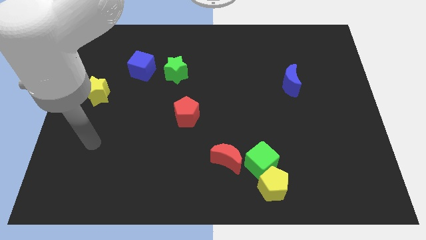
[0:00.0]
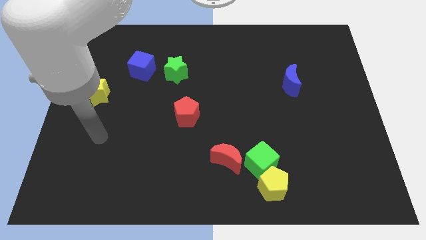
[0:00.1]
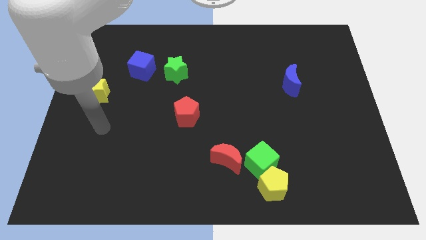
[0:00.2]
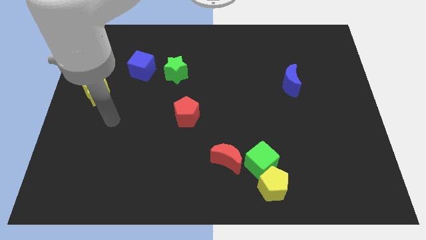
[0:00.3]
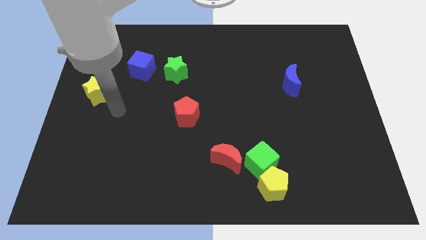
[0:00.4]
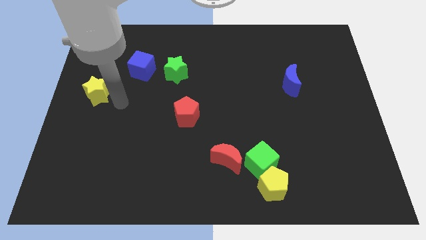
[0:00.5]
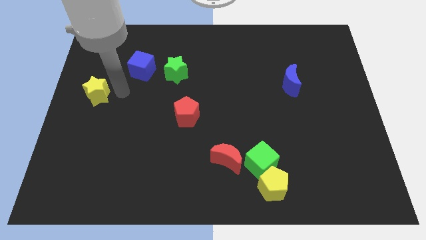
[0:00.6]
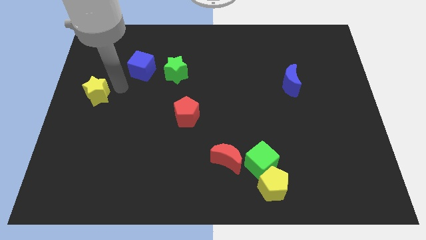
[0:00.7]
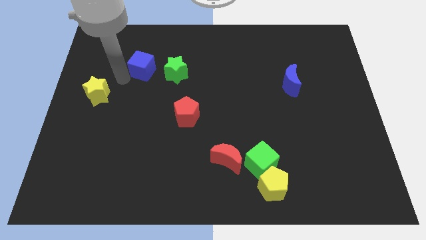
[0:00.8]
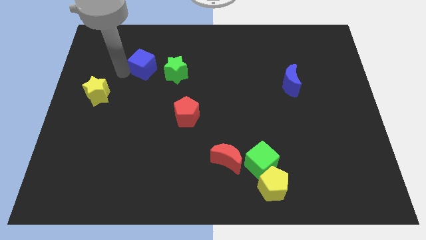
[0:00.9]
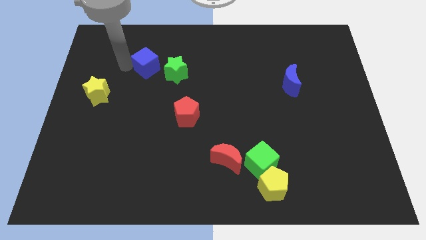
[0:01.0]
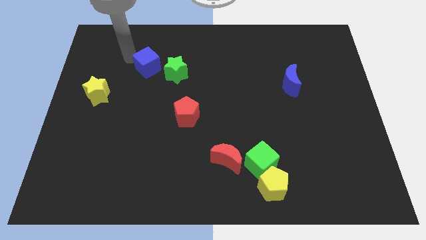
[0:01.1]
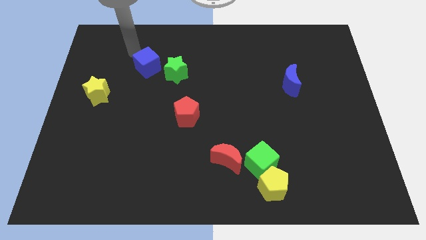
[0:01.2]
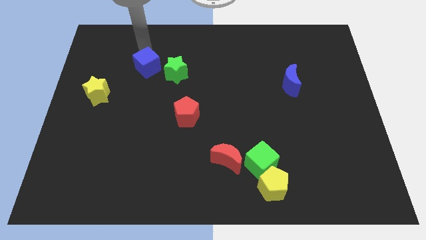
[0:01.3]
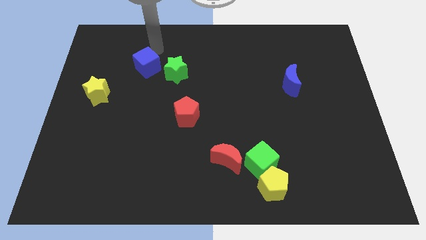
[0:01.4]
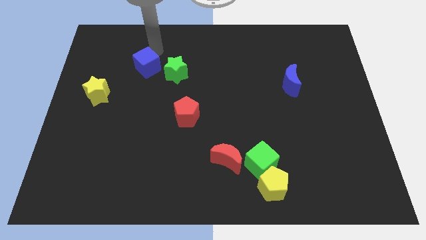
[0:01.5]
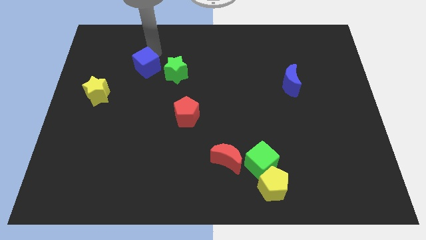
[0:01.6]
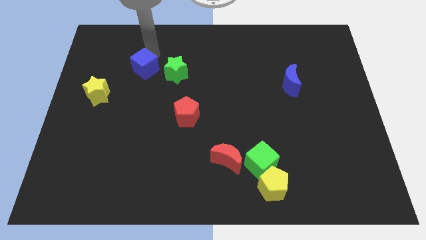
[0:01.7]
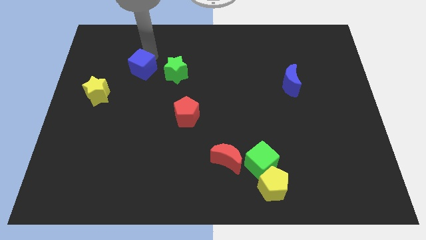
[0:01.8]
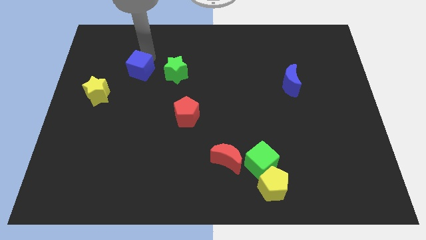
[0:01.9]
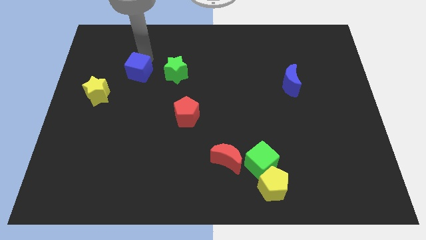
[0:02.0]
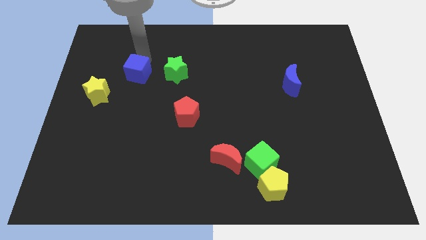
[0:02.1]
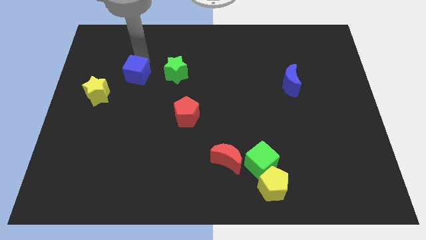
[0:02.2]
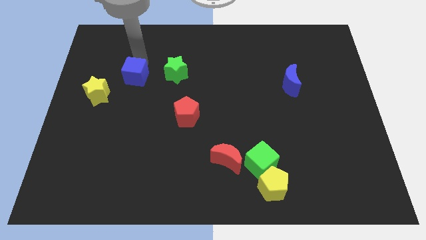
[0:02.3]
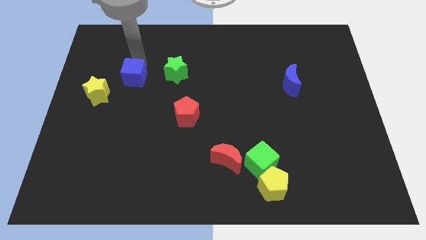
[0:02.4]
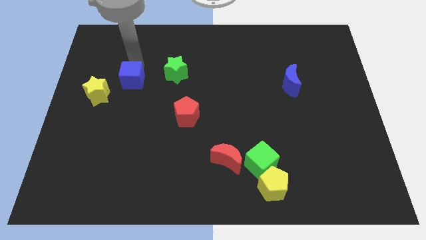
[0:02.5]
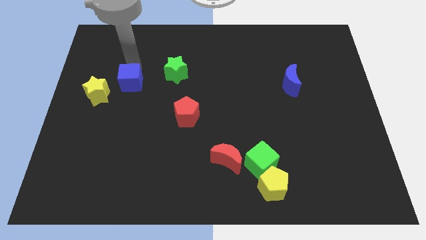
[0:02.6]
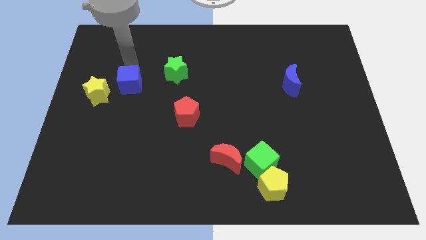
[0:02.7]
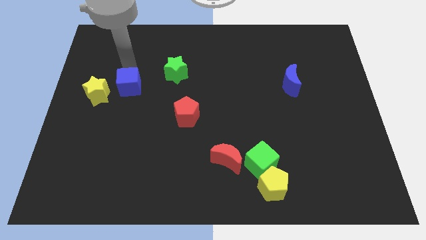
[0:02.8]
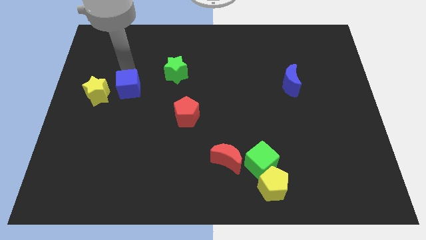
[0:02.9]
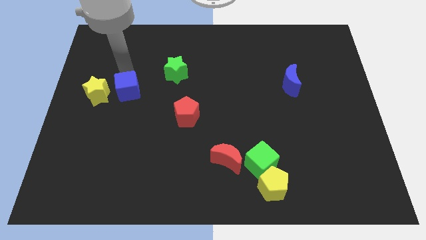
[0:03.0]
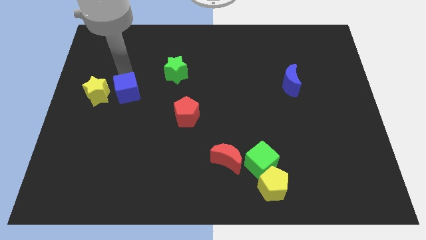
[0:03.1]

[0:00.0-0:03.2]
slide the blue cube somewhat down

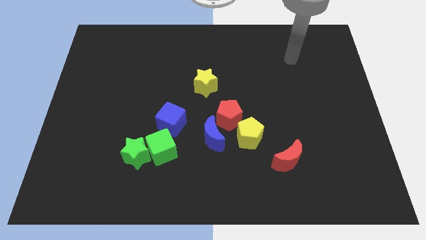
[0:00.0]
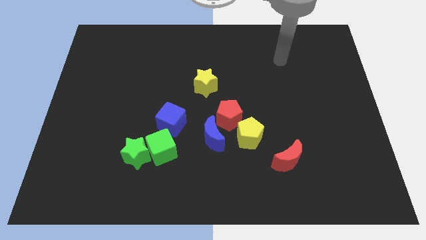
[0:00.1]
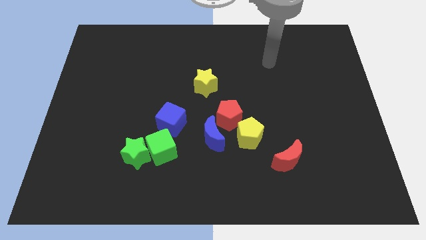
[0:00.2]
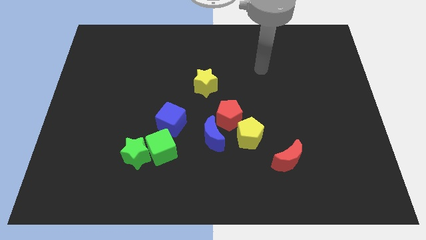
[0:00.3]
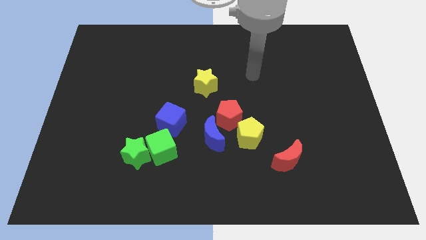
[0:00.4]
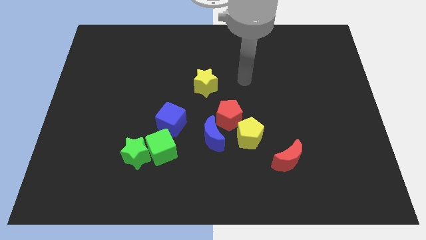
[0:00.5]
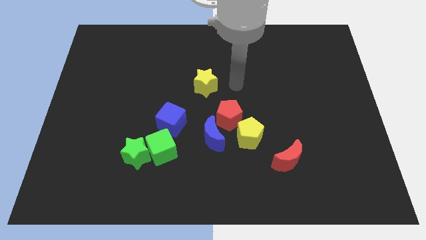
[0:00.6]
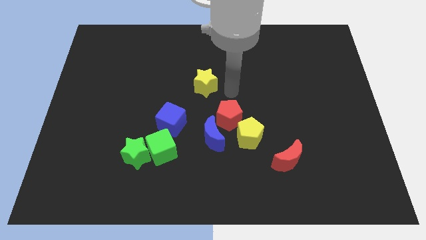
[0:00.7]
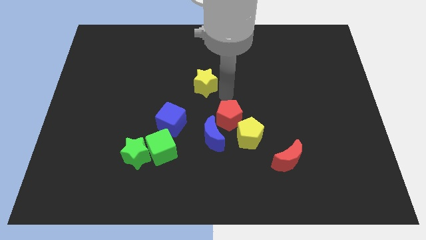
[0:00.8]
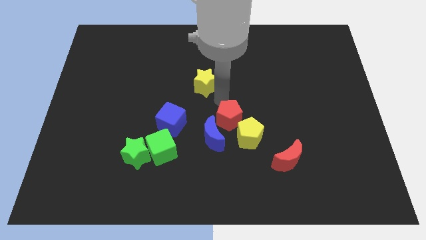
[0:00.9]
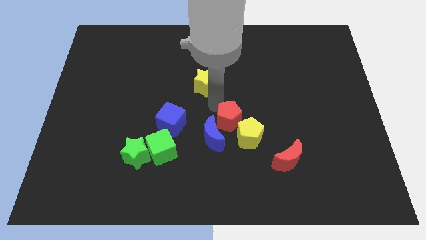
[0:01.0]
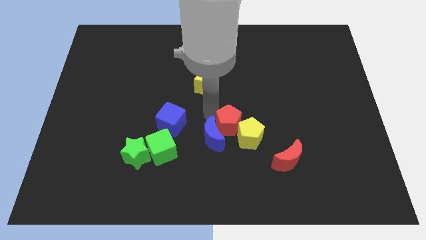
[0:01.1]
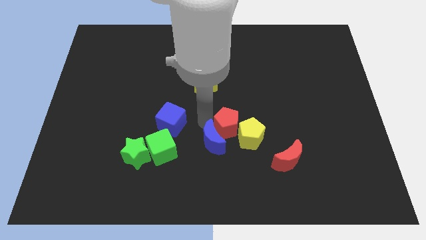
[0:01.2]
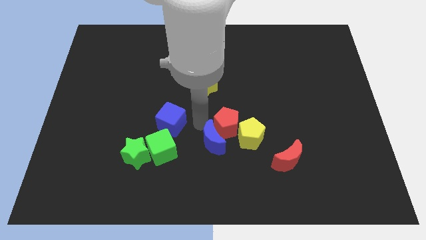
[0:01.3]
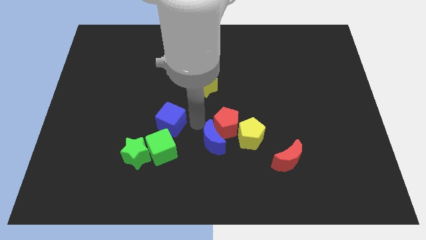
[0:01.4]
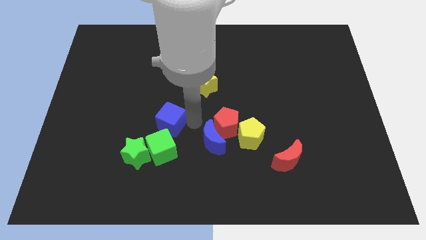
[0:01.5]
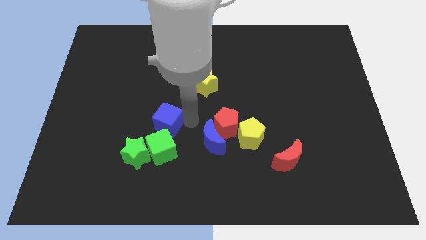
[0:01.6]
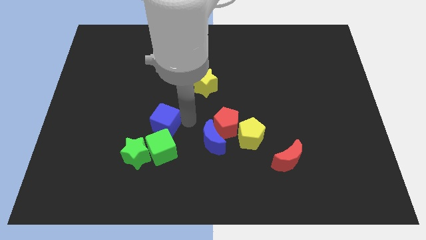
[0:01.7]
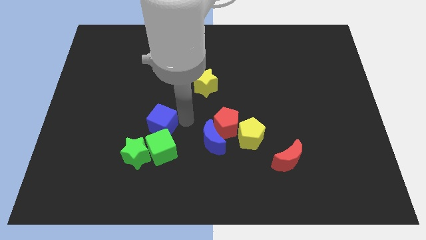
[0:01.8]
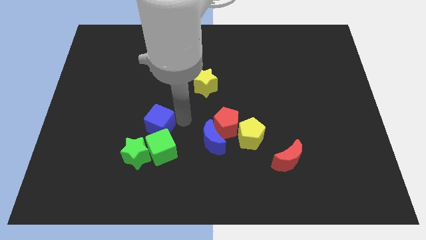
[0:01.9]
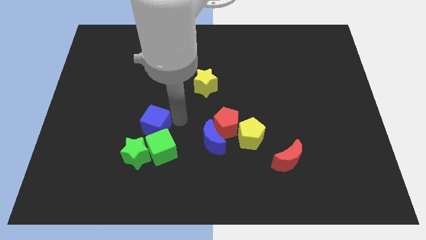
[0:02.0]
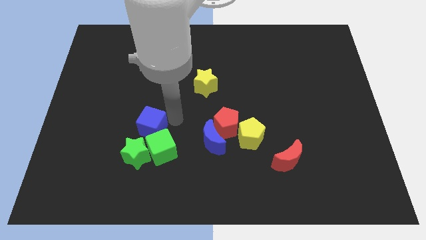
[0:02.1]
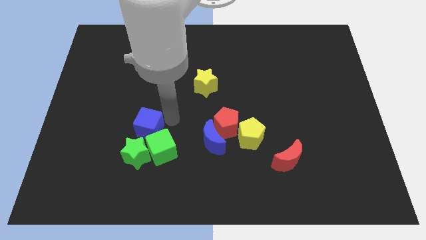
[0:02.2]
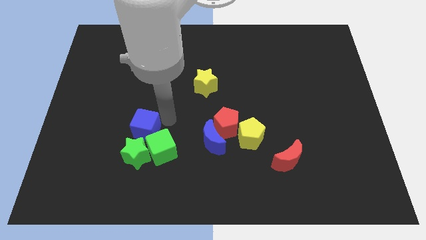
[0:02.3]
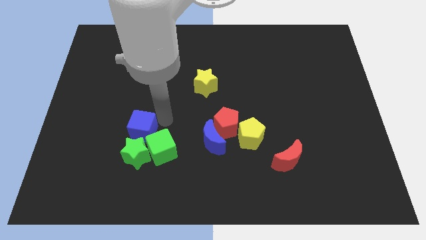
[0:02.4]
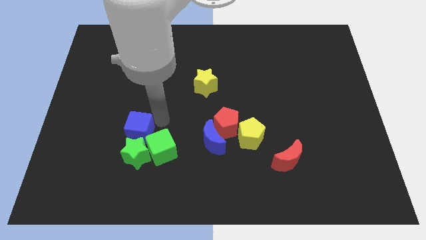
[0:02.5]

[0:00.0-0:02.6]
slightly slide the blue cube left

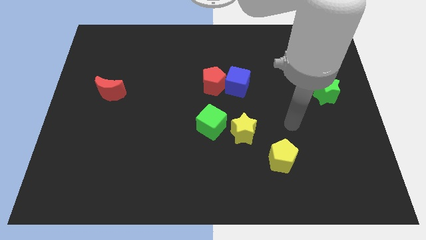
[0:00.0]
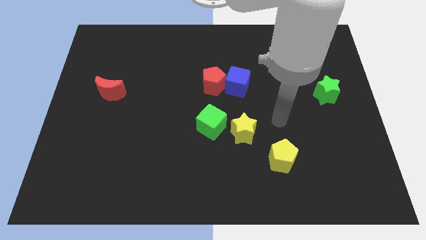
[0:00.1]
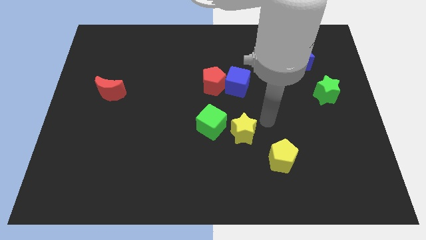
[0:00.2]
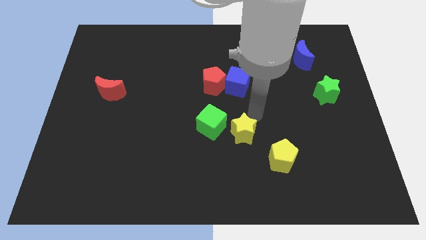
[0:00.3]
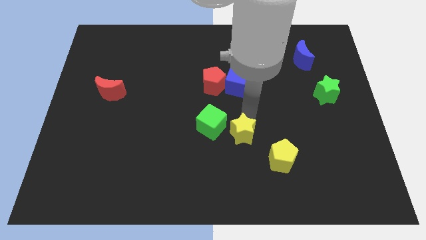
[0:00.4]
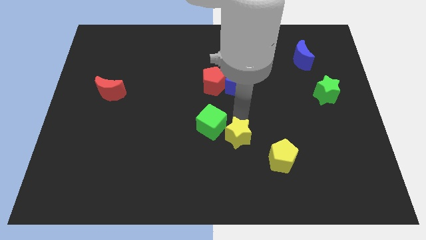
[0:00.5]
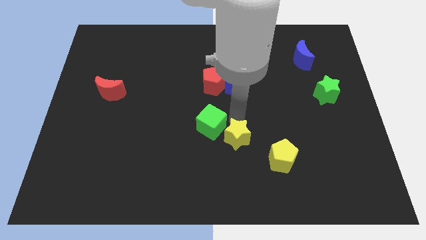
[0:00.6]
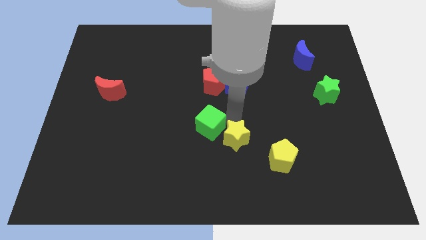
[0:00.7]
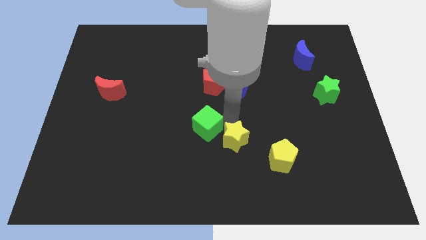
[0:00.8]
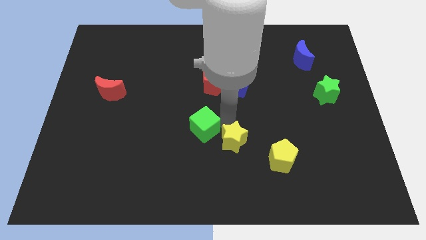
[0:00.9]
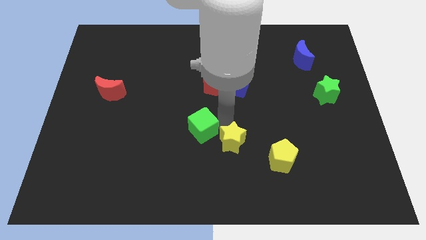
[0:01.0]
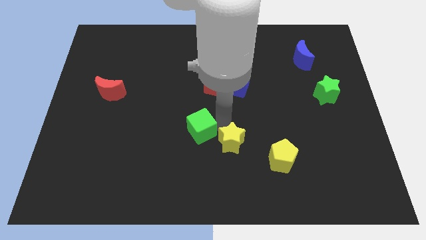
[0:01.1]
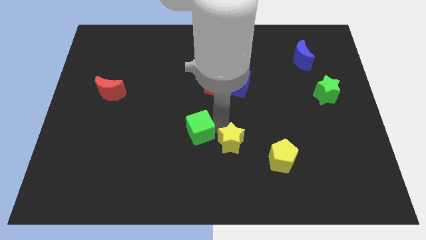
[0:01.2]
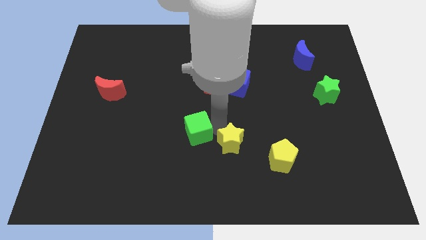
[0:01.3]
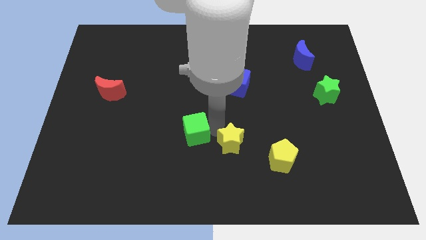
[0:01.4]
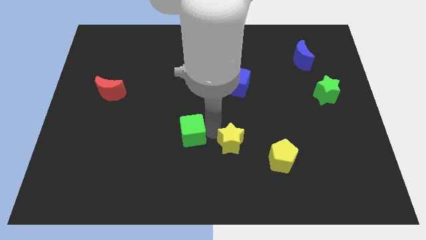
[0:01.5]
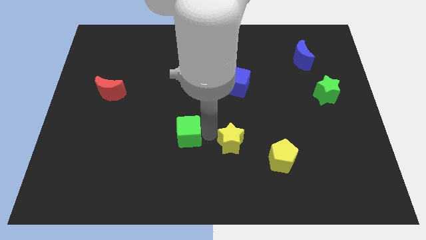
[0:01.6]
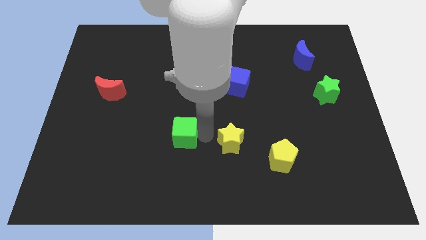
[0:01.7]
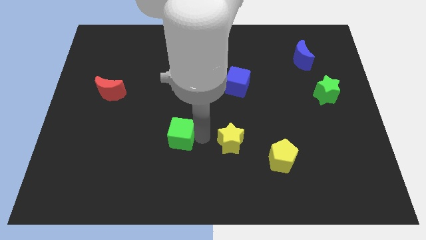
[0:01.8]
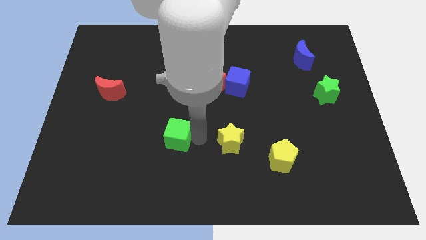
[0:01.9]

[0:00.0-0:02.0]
move the green cube a little bit to the left

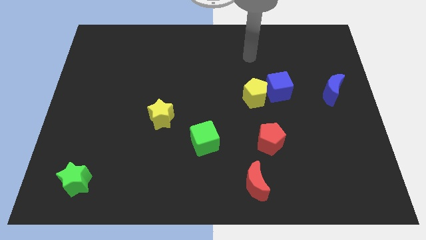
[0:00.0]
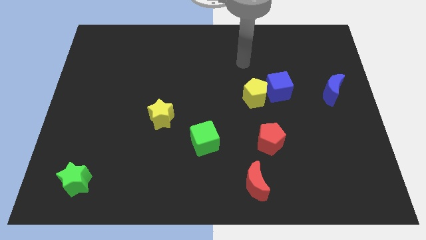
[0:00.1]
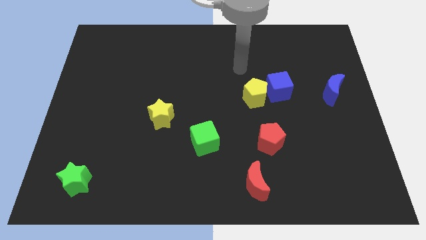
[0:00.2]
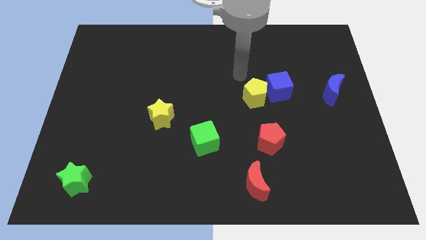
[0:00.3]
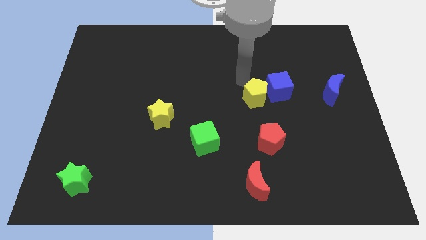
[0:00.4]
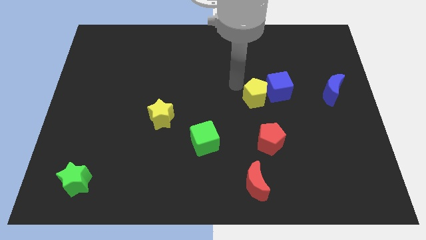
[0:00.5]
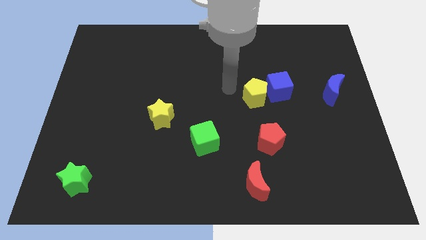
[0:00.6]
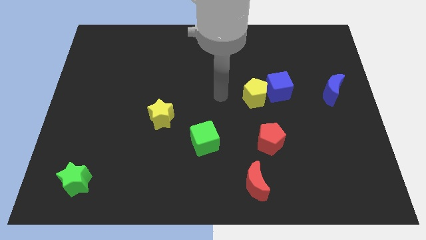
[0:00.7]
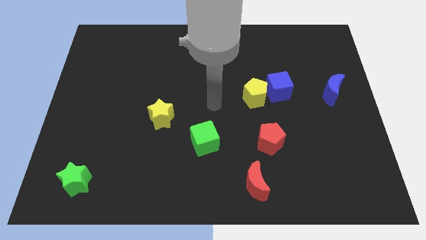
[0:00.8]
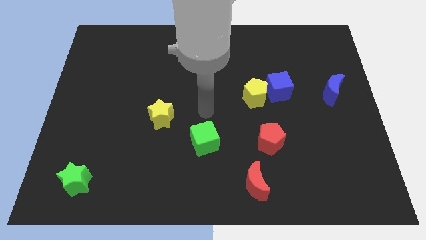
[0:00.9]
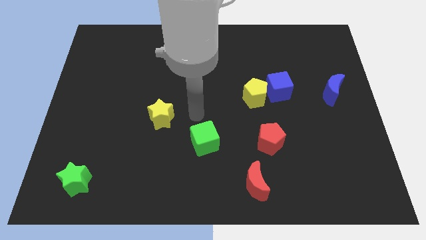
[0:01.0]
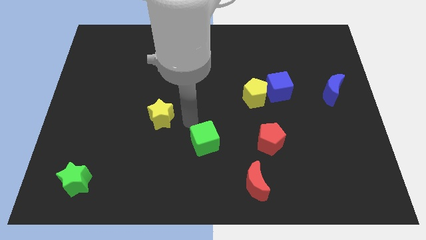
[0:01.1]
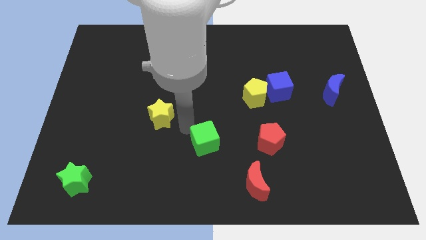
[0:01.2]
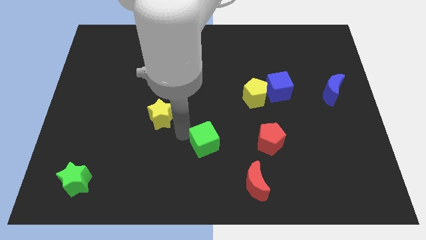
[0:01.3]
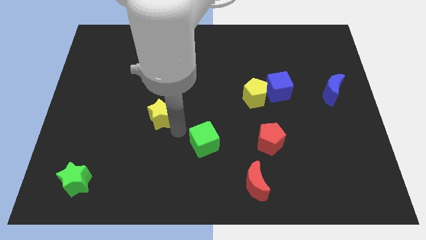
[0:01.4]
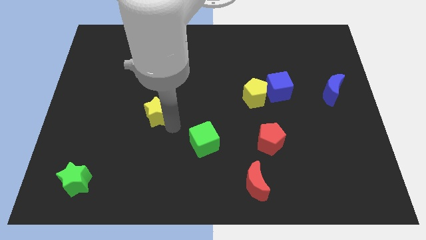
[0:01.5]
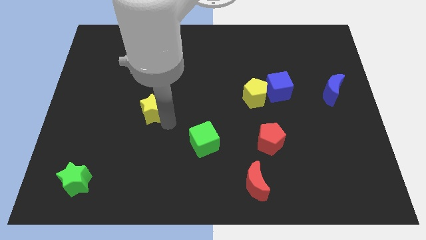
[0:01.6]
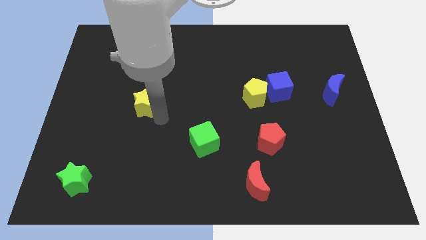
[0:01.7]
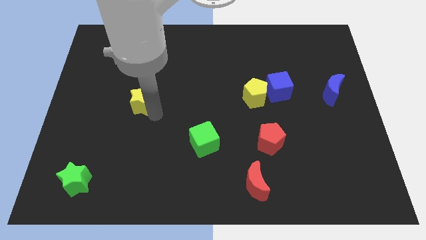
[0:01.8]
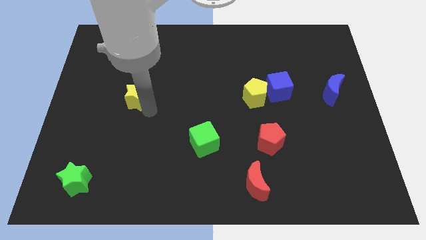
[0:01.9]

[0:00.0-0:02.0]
push the yellow star up and to the left slightly
